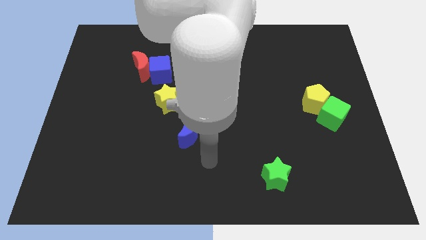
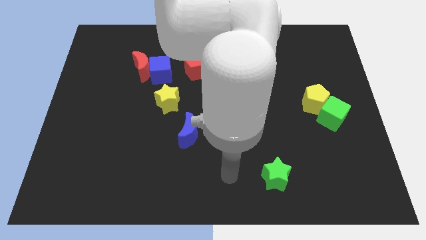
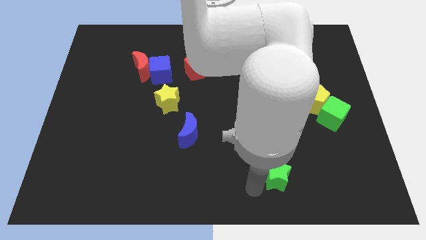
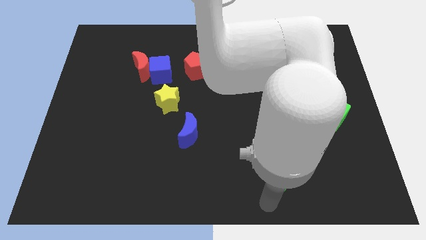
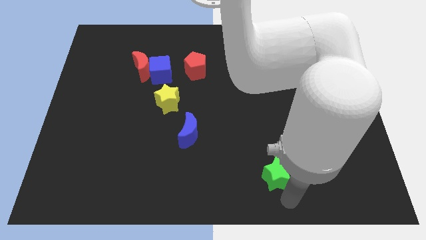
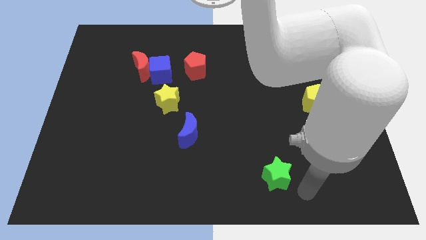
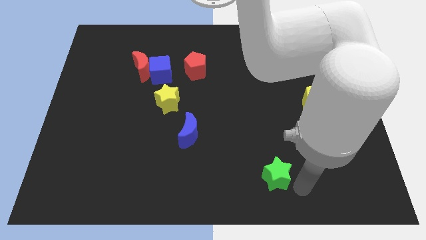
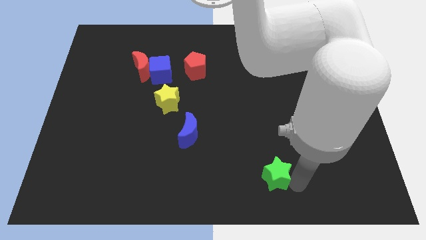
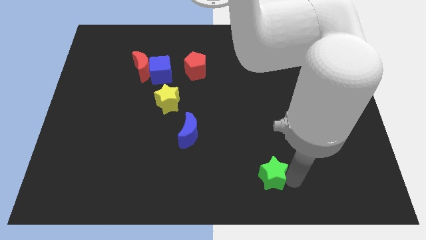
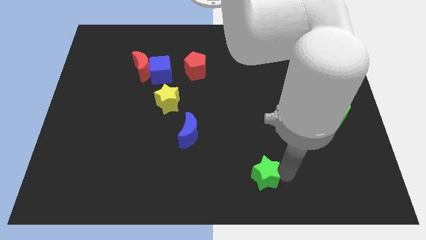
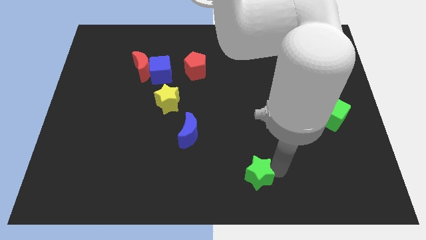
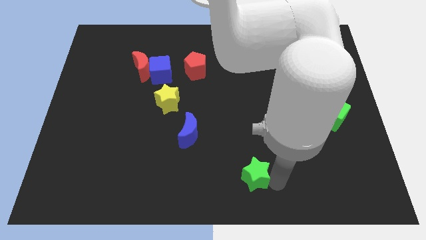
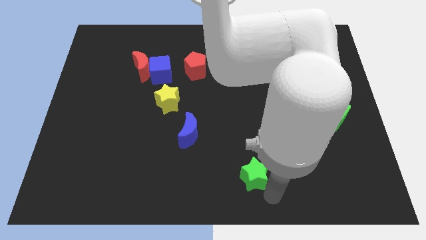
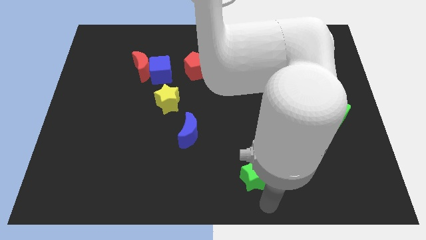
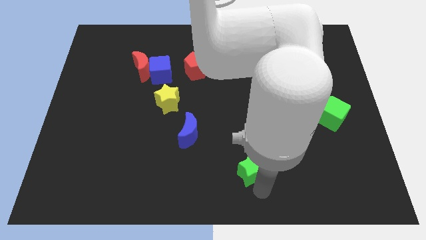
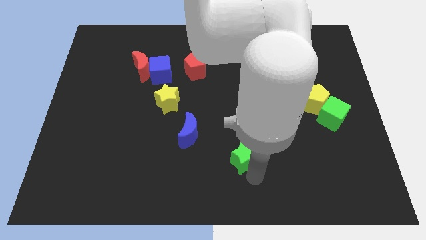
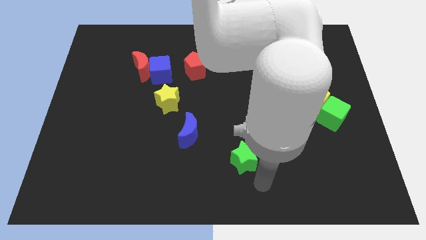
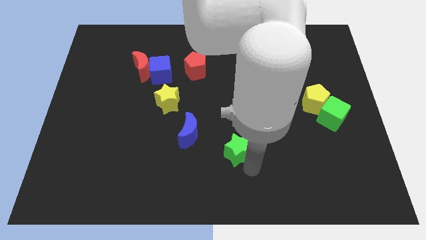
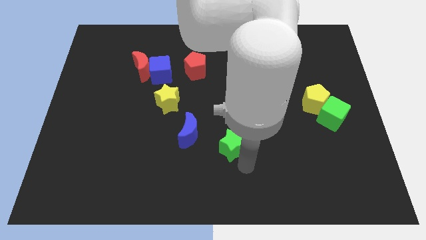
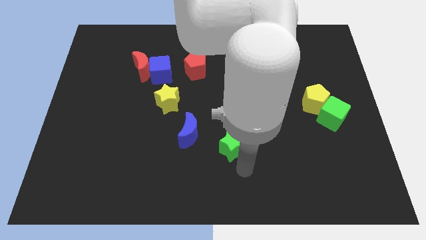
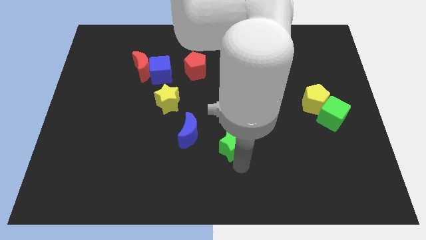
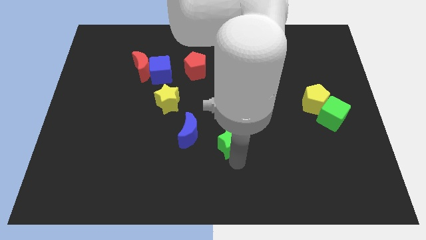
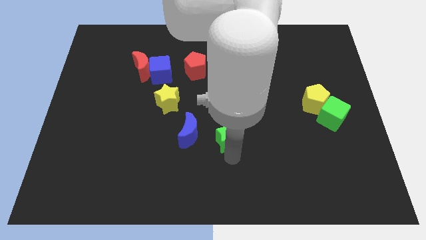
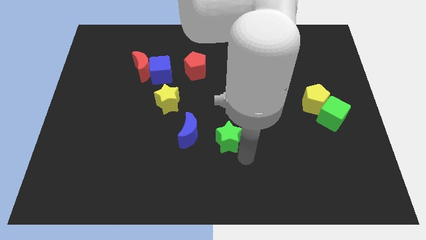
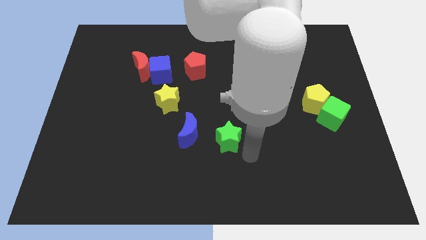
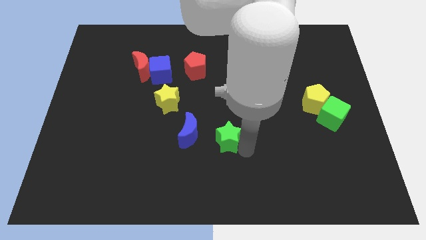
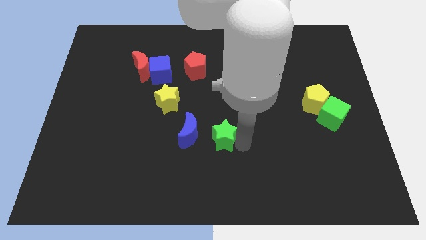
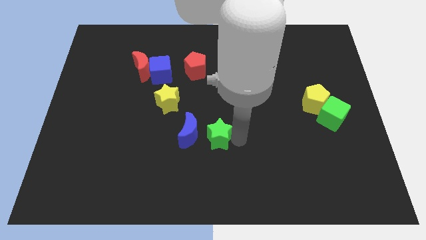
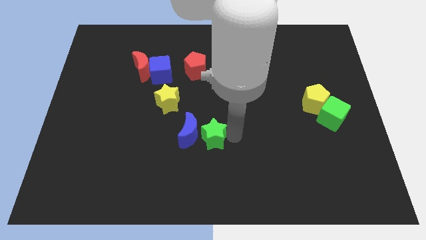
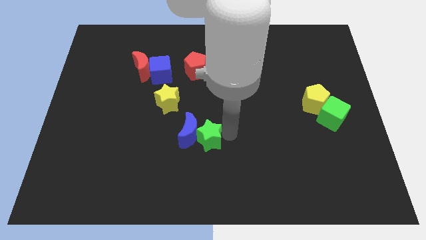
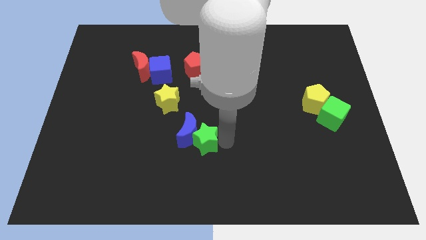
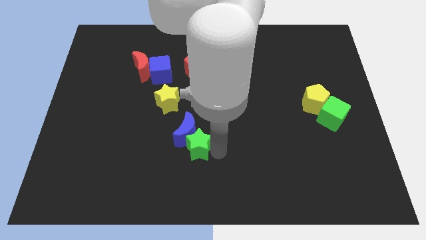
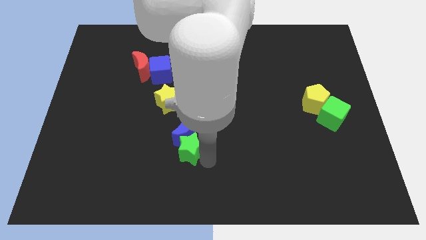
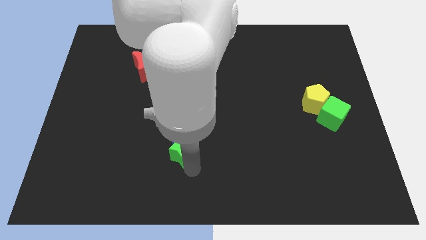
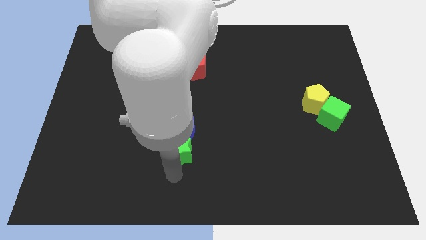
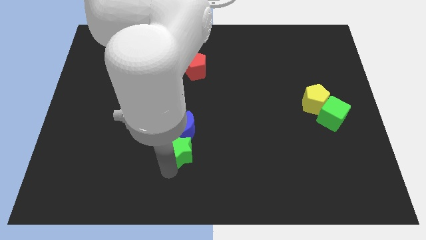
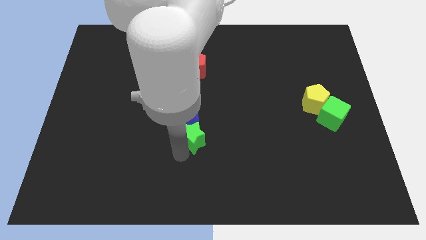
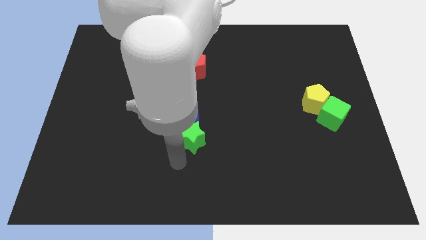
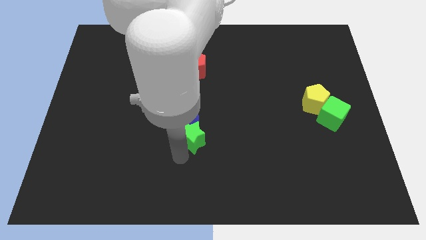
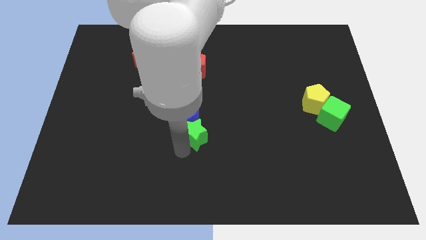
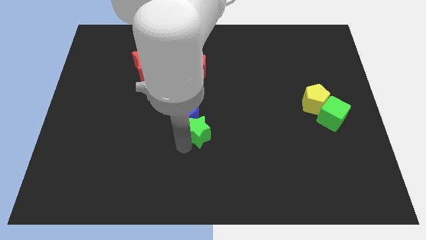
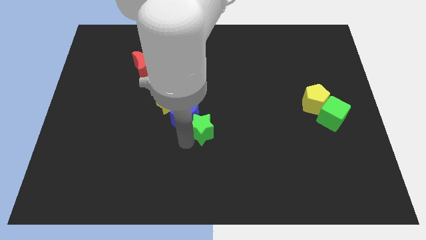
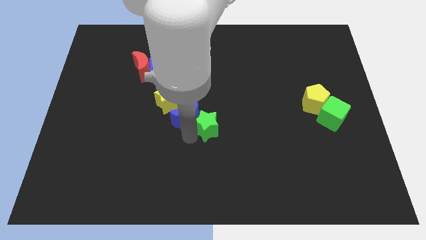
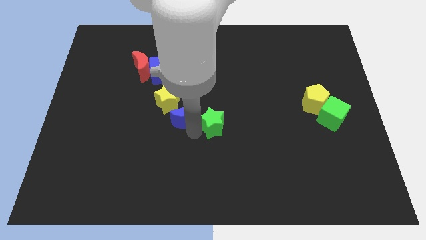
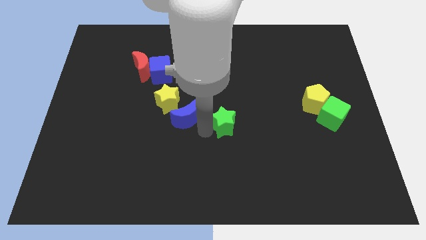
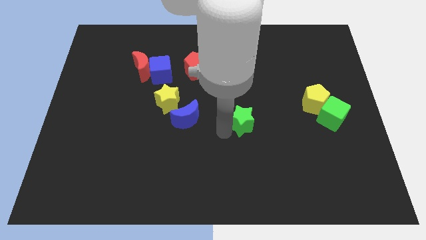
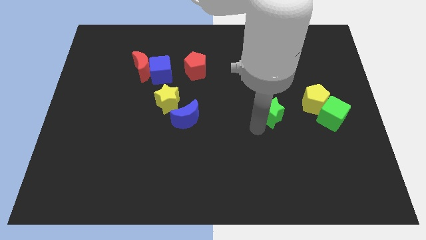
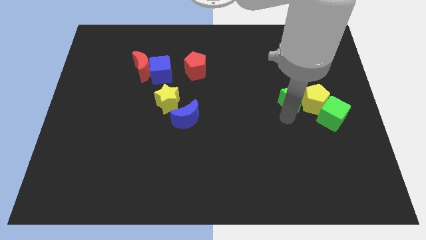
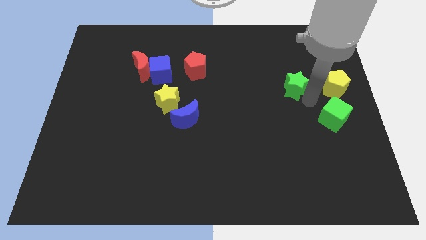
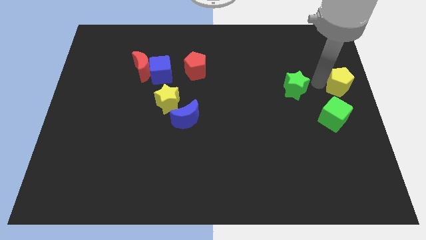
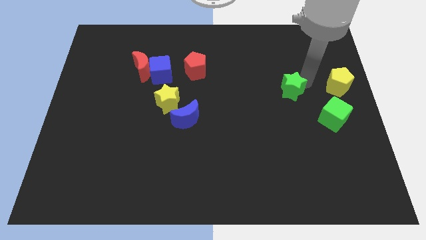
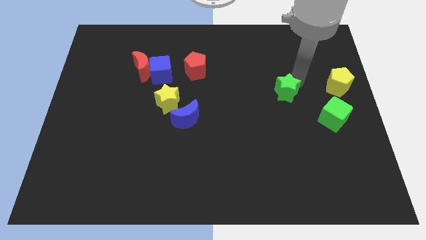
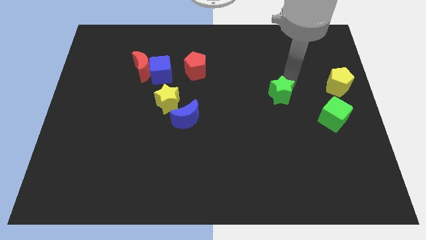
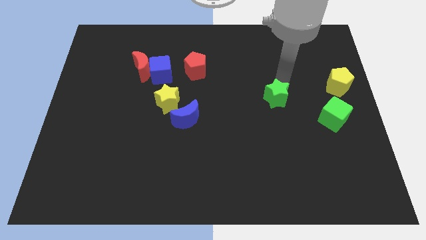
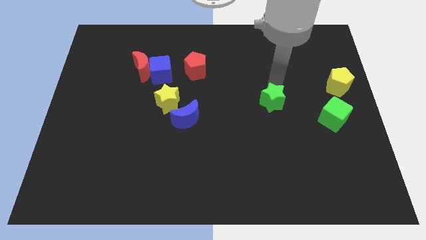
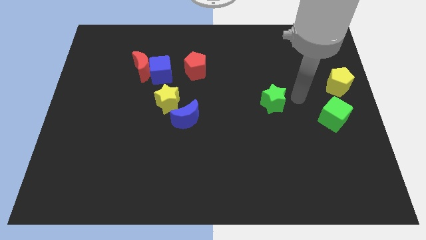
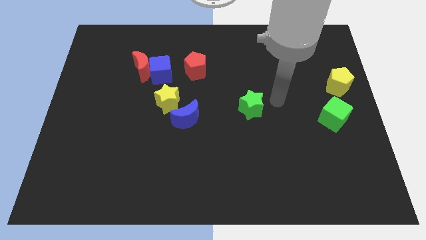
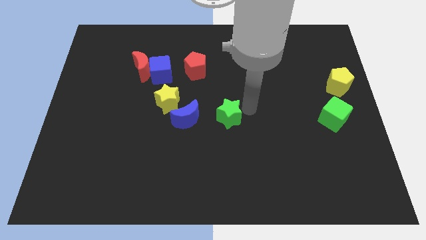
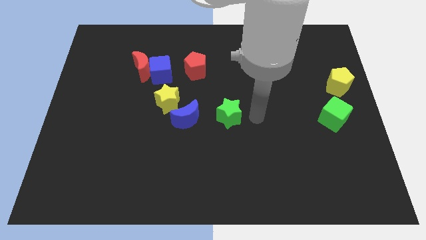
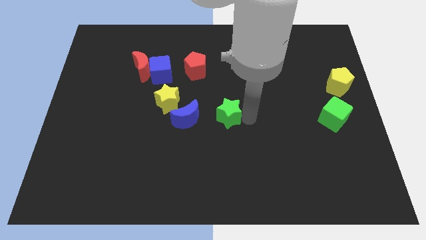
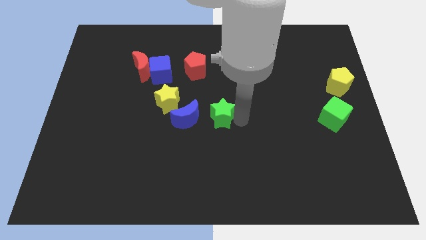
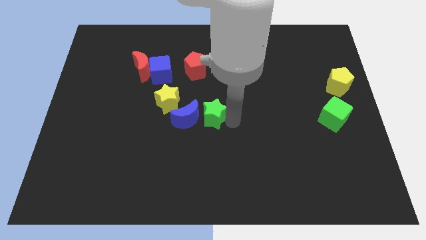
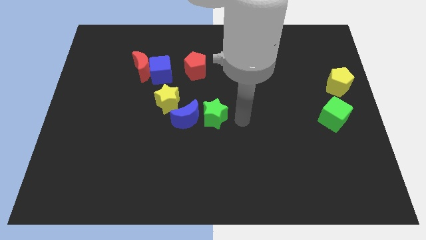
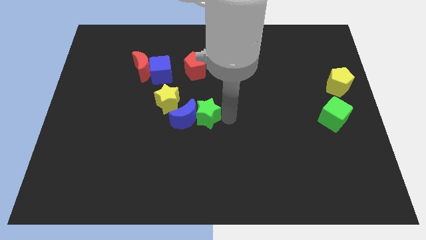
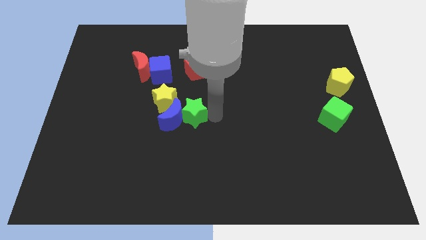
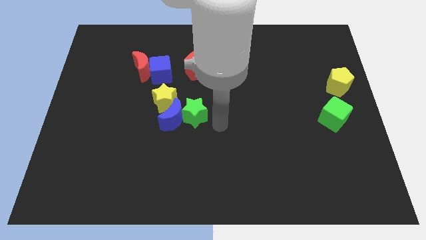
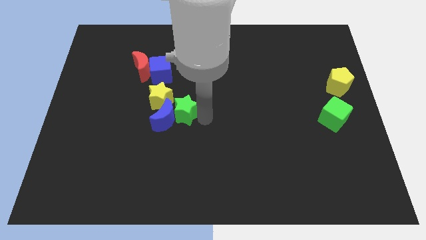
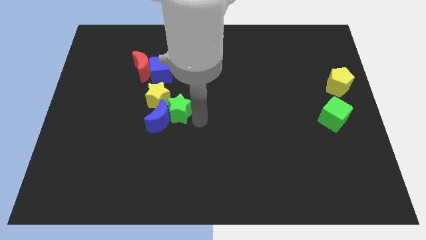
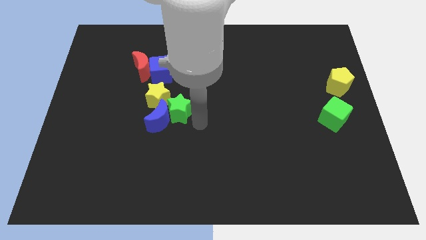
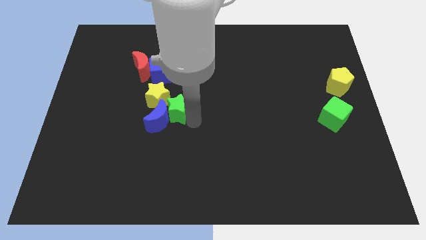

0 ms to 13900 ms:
push the green star next to the yellow star

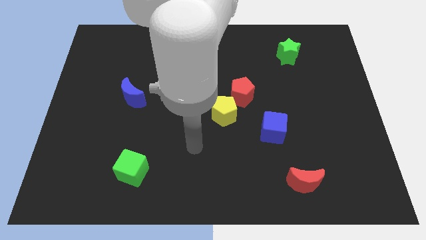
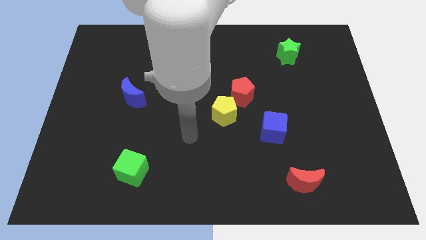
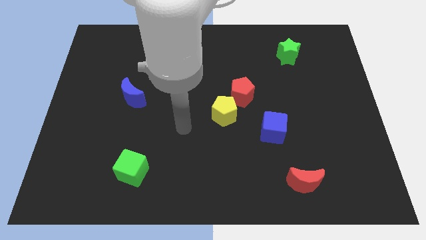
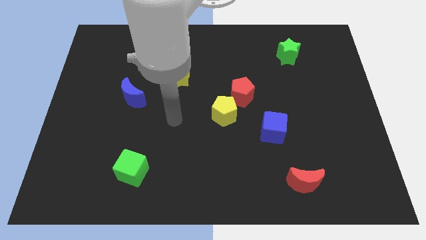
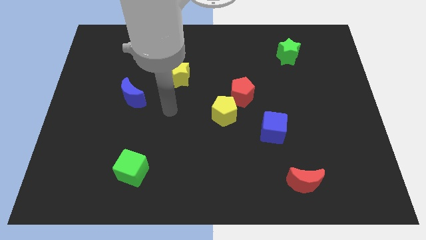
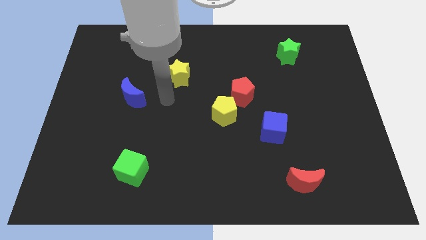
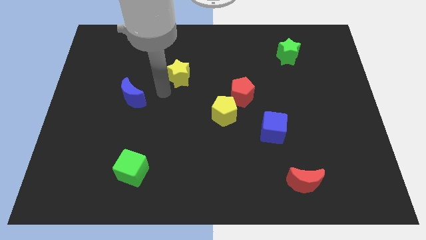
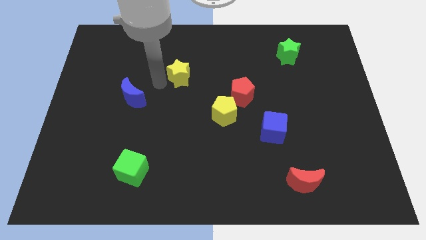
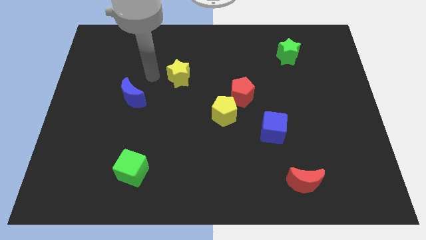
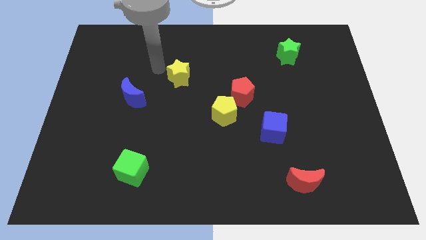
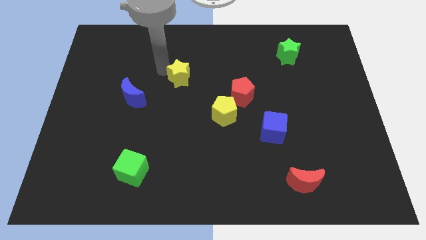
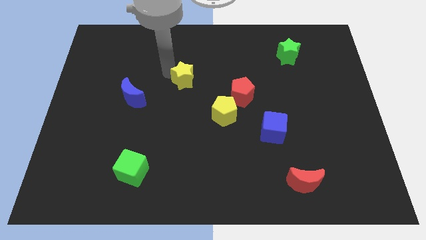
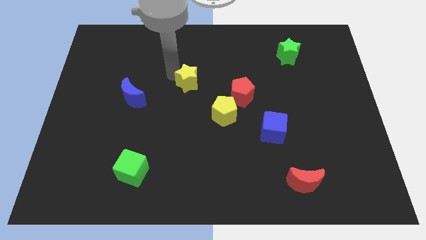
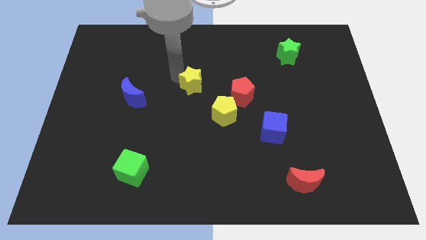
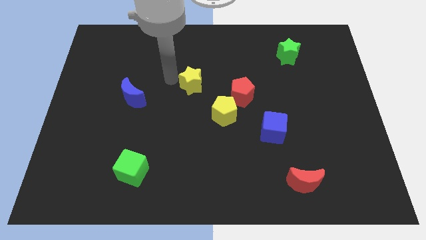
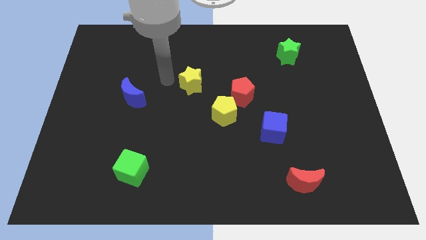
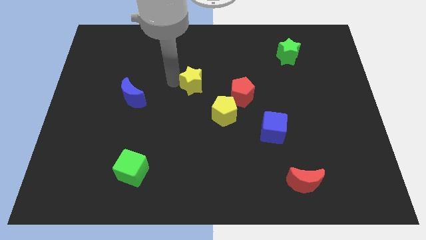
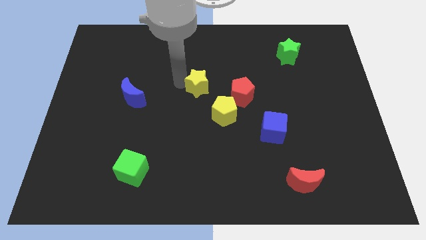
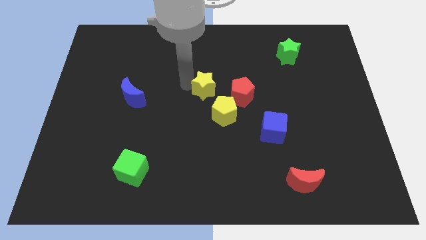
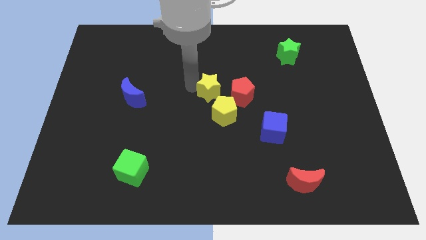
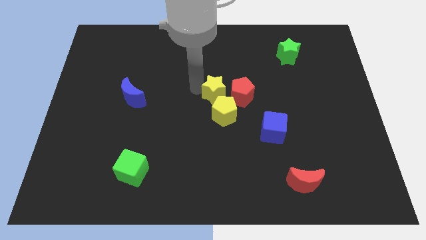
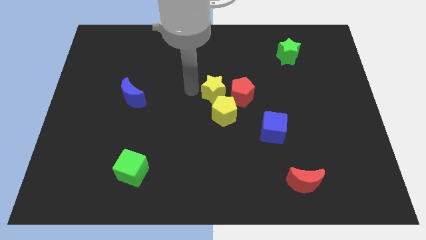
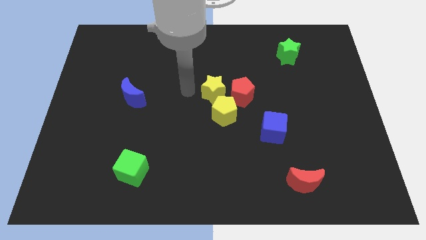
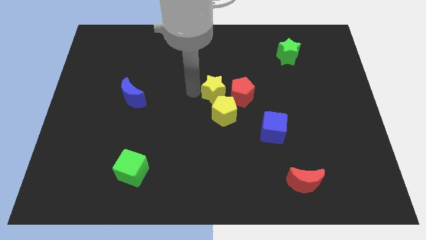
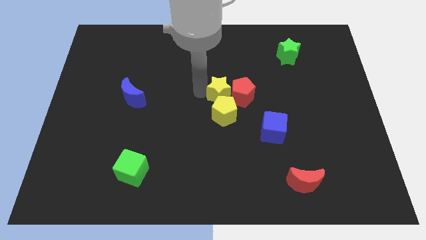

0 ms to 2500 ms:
slide the yellow star to the red pentagon
